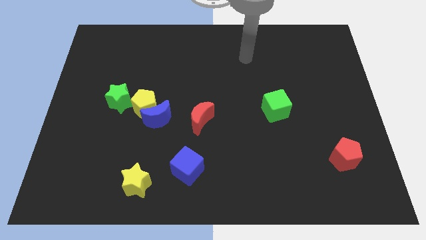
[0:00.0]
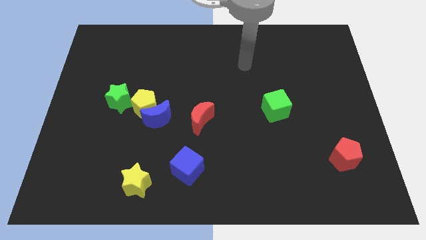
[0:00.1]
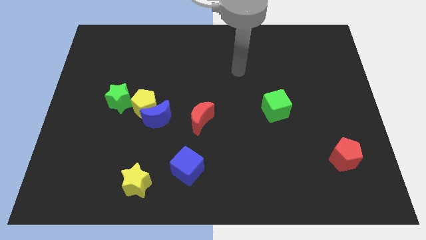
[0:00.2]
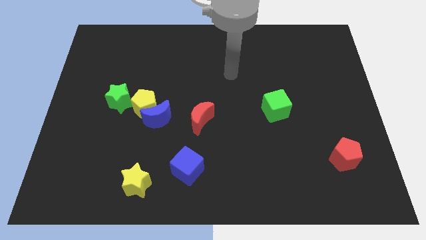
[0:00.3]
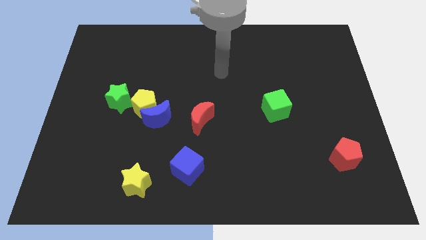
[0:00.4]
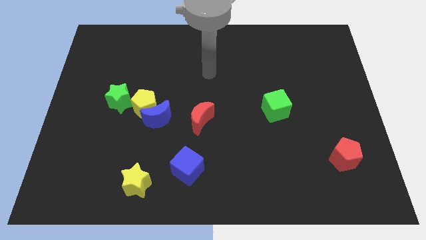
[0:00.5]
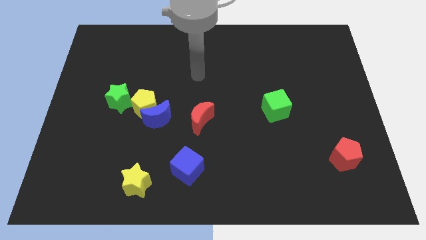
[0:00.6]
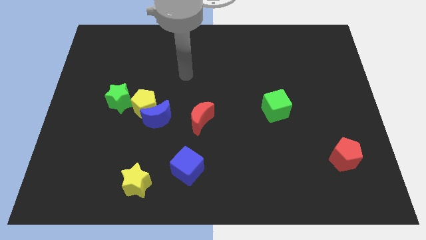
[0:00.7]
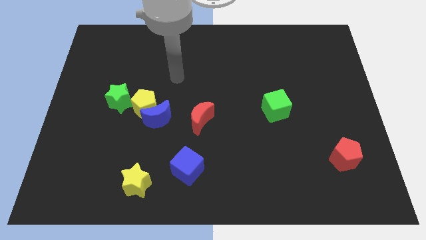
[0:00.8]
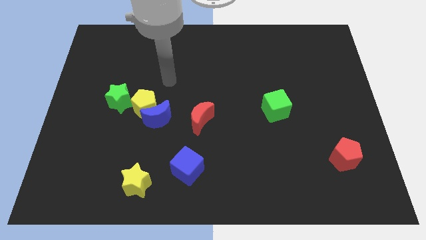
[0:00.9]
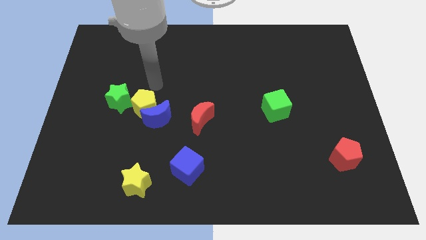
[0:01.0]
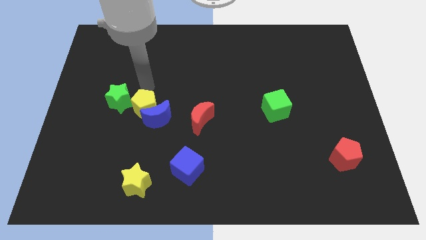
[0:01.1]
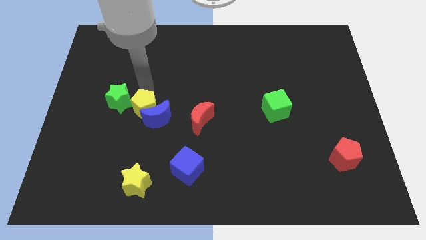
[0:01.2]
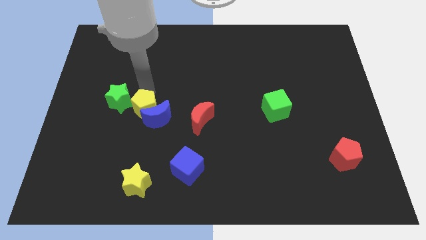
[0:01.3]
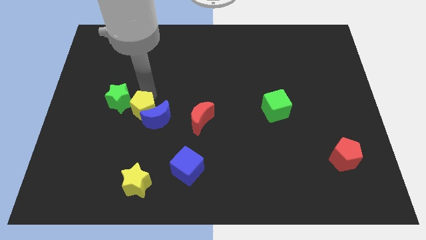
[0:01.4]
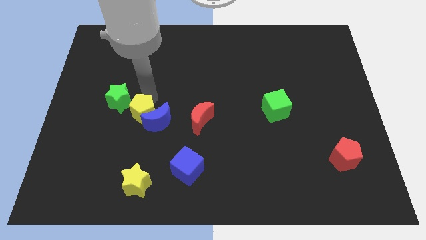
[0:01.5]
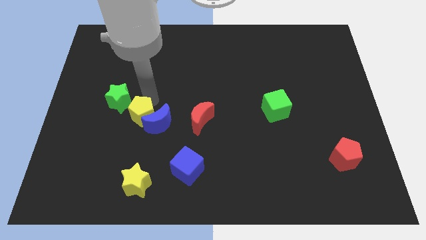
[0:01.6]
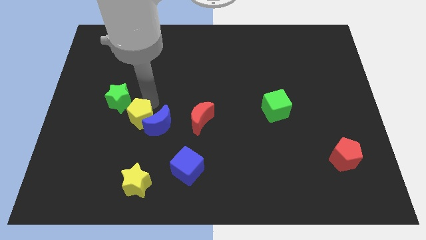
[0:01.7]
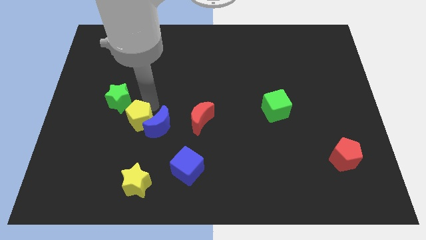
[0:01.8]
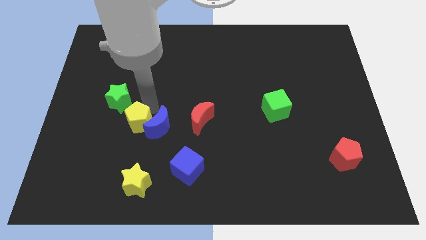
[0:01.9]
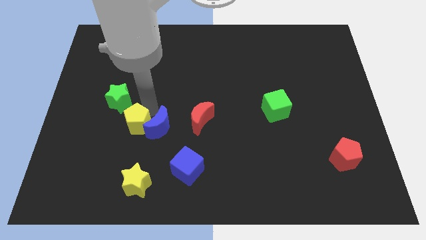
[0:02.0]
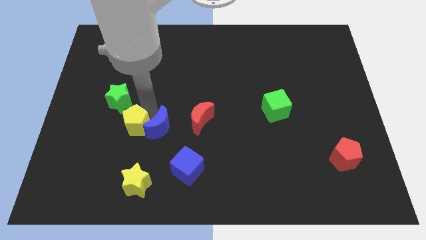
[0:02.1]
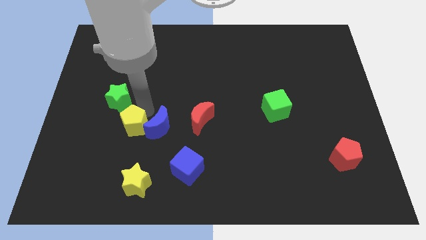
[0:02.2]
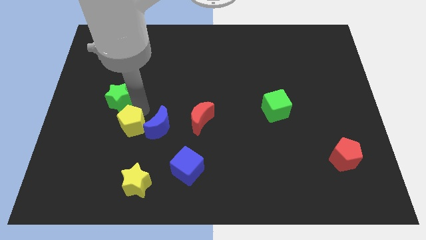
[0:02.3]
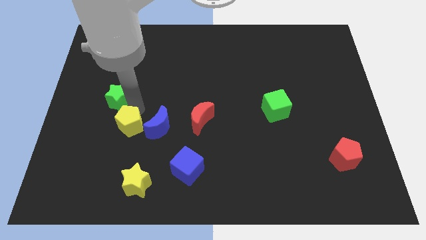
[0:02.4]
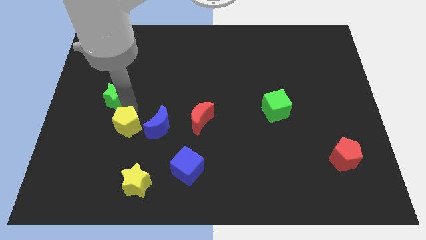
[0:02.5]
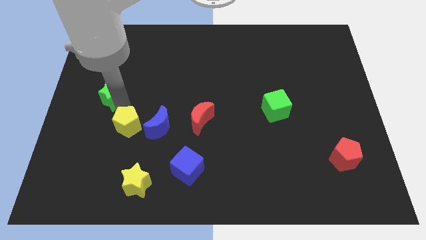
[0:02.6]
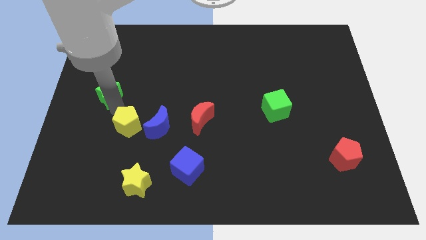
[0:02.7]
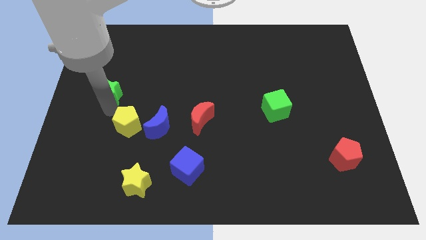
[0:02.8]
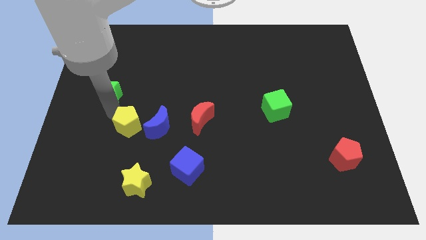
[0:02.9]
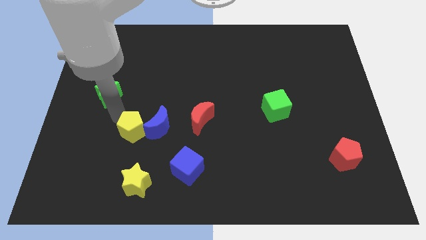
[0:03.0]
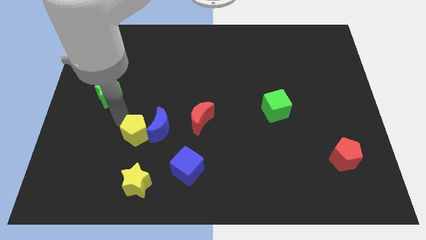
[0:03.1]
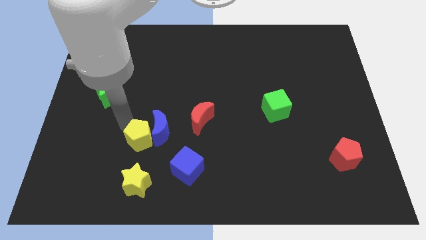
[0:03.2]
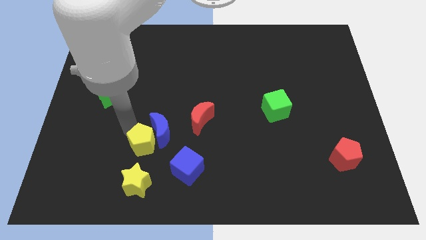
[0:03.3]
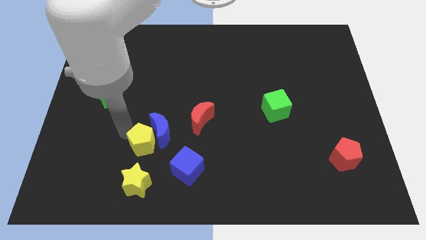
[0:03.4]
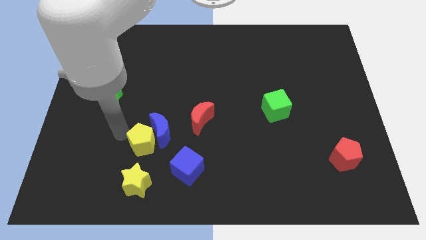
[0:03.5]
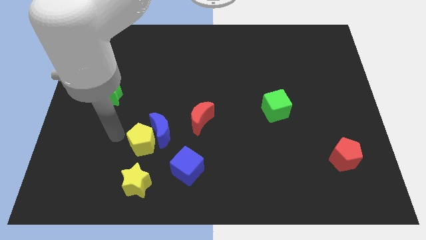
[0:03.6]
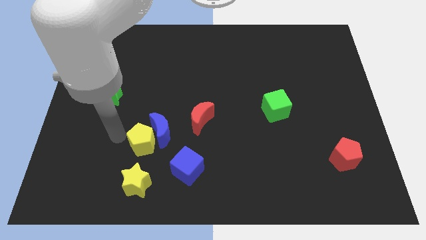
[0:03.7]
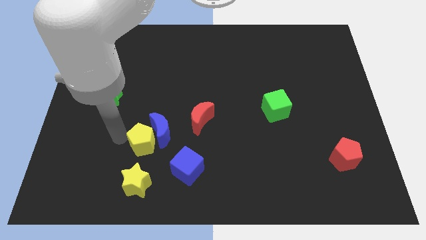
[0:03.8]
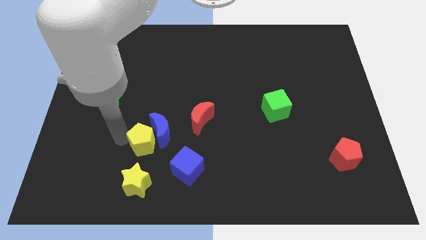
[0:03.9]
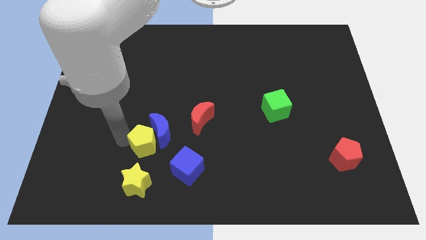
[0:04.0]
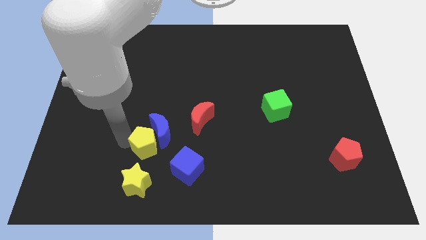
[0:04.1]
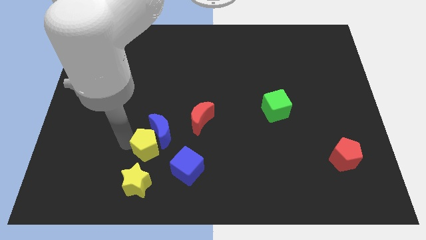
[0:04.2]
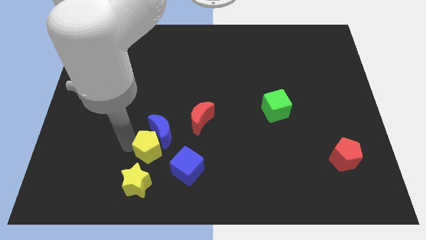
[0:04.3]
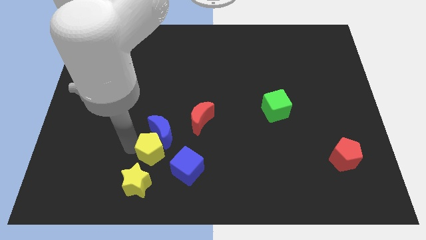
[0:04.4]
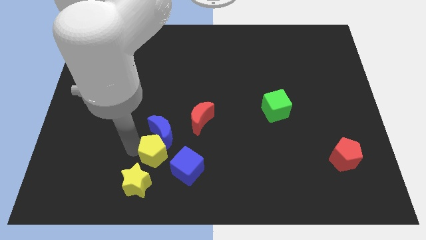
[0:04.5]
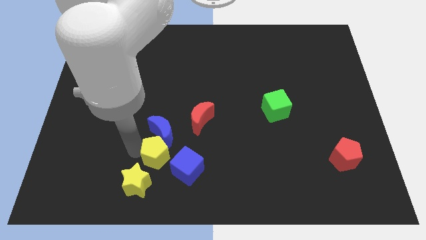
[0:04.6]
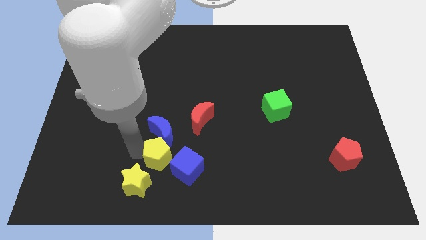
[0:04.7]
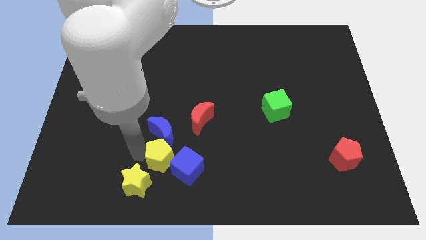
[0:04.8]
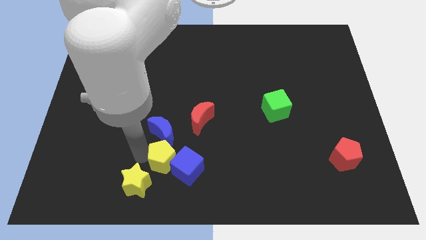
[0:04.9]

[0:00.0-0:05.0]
put the yellow pentagon close to the blue cube

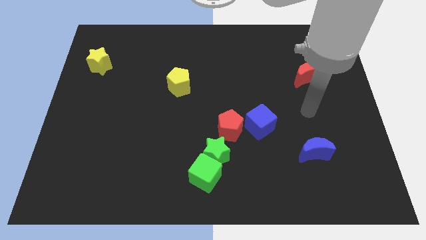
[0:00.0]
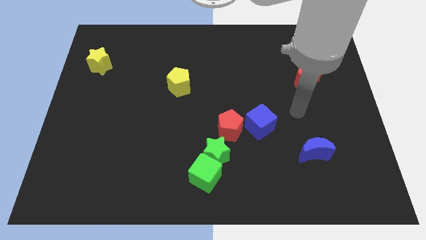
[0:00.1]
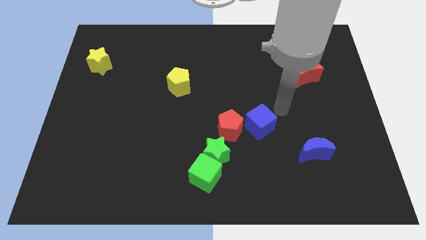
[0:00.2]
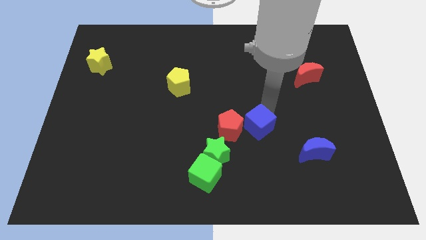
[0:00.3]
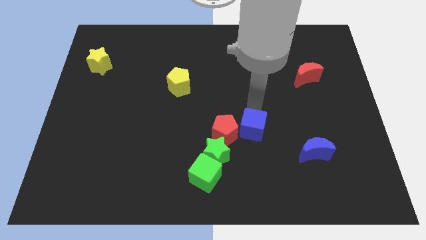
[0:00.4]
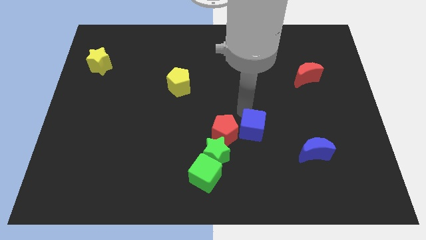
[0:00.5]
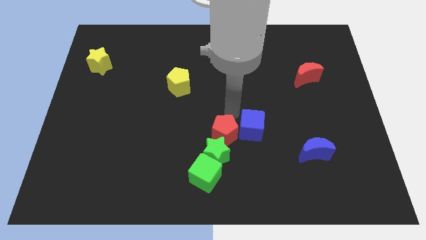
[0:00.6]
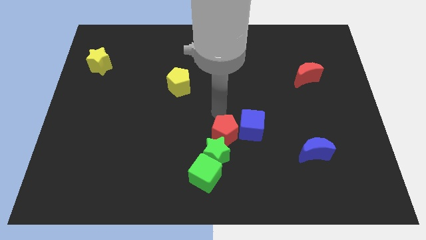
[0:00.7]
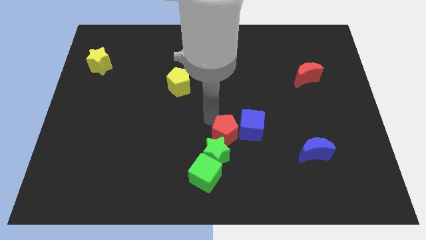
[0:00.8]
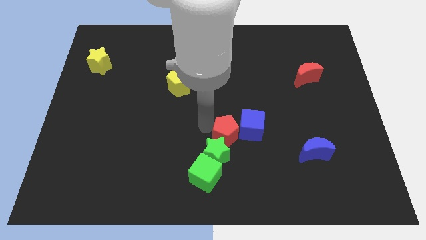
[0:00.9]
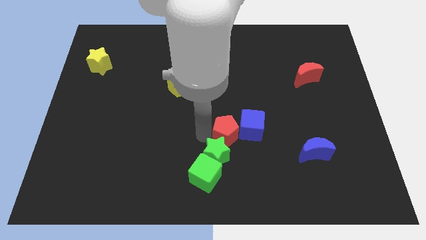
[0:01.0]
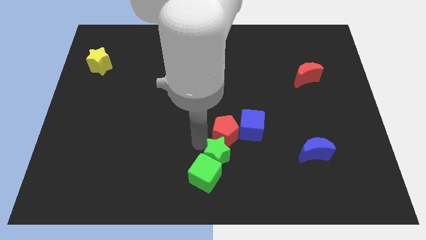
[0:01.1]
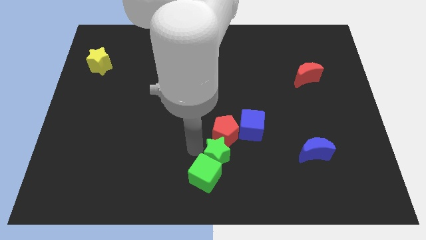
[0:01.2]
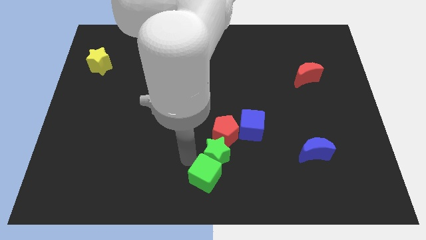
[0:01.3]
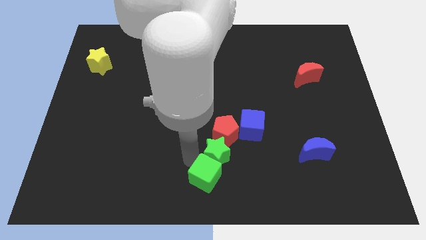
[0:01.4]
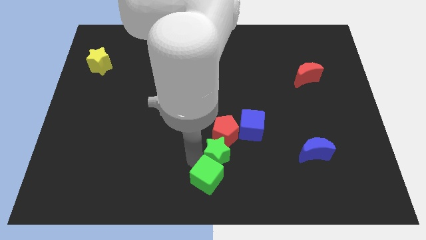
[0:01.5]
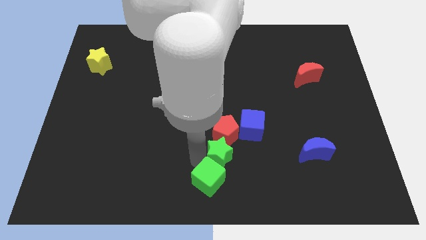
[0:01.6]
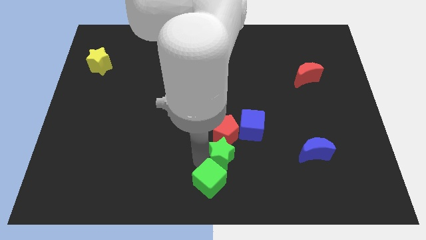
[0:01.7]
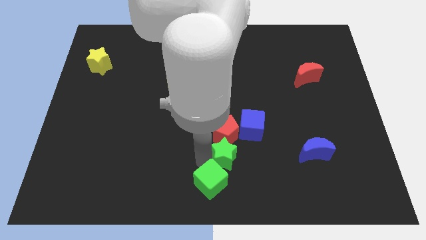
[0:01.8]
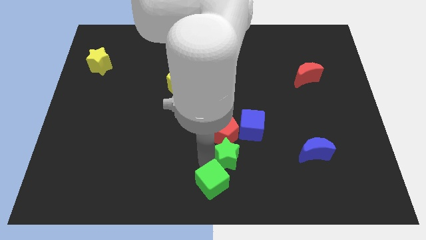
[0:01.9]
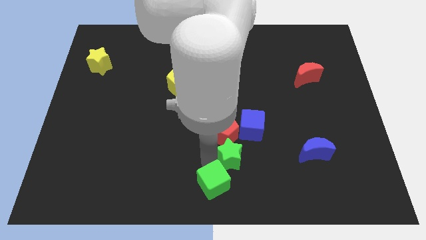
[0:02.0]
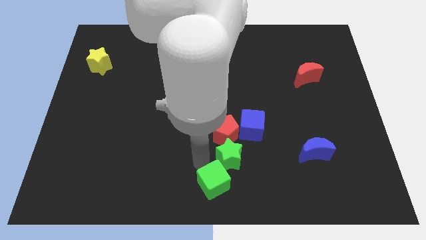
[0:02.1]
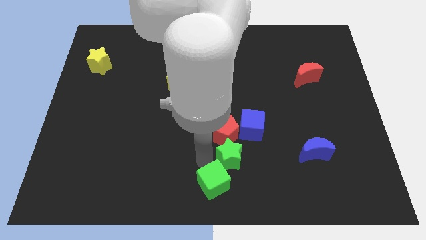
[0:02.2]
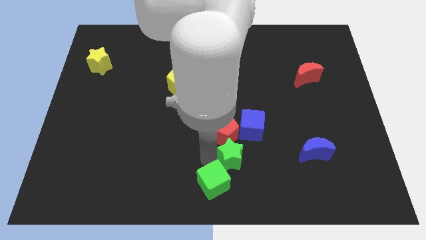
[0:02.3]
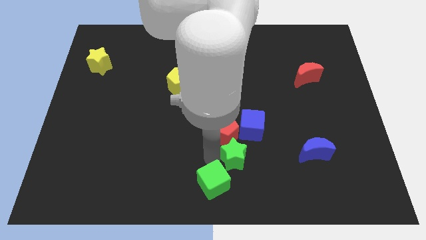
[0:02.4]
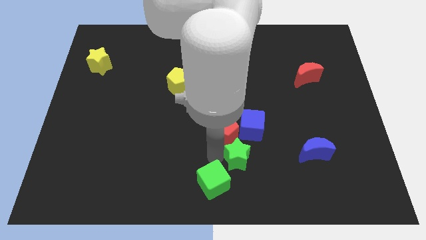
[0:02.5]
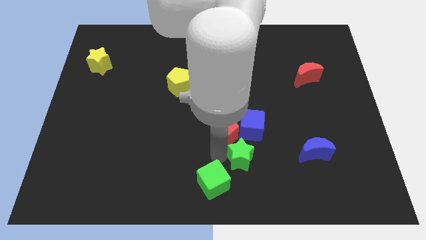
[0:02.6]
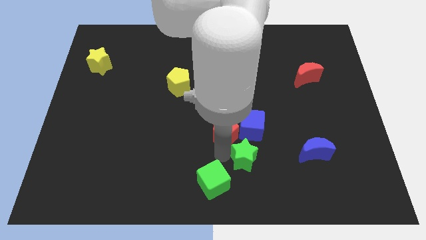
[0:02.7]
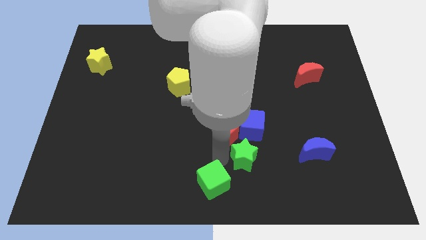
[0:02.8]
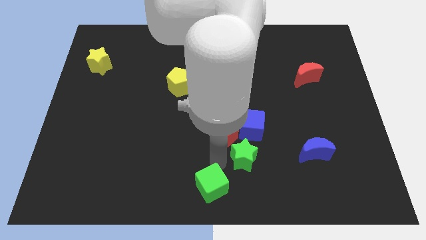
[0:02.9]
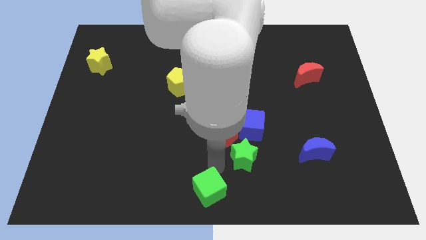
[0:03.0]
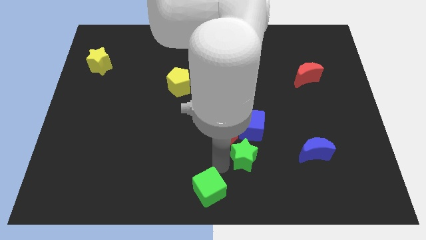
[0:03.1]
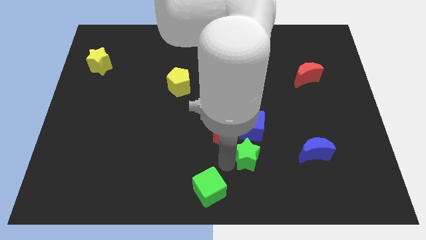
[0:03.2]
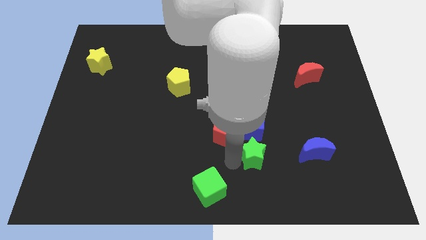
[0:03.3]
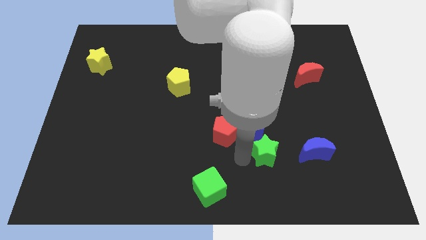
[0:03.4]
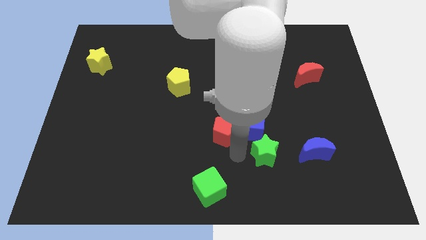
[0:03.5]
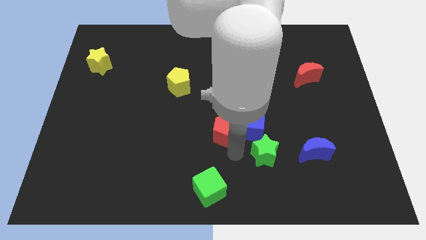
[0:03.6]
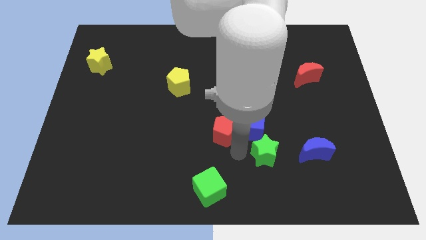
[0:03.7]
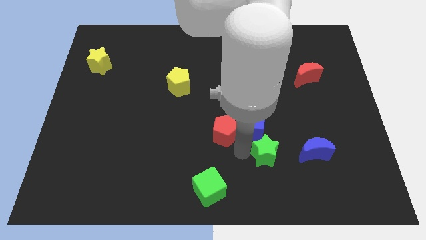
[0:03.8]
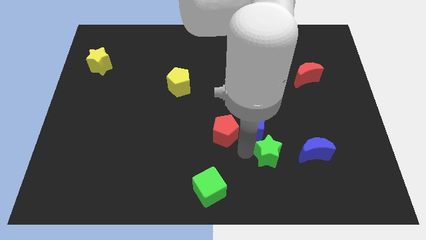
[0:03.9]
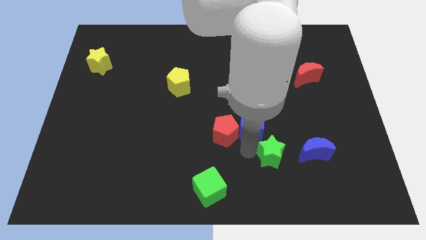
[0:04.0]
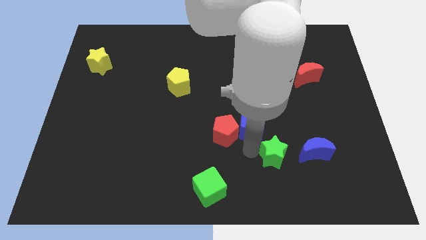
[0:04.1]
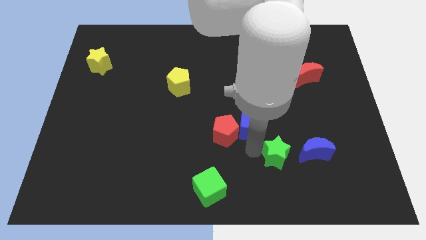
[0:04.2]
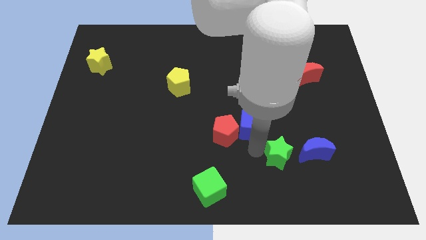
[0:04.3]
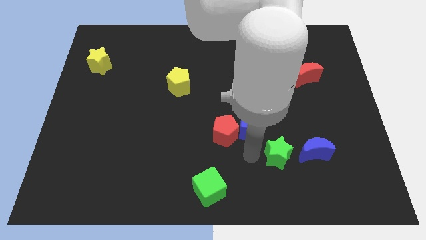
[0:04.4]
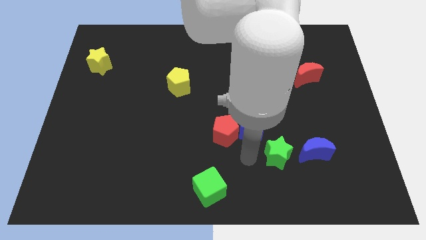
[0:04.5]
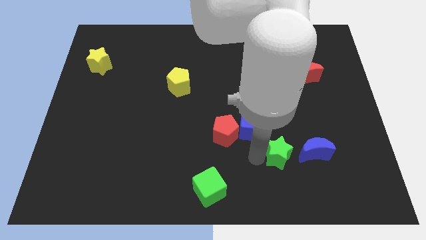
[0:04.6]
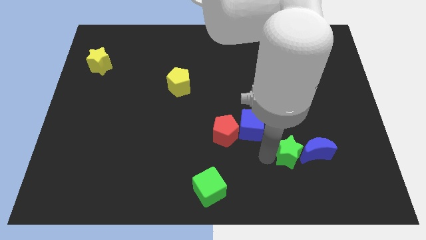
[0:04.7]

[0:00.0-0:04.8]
slide the green star towards the blue moon
